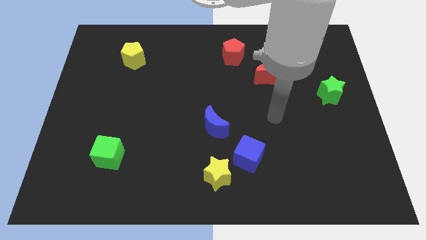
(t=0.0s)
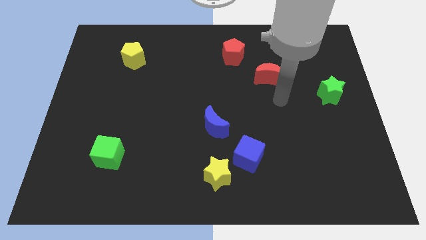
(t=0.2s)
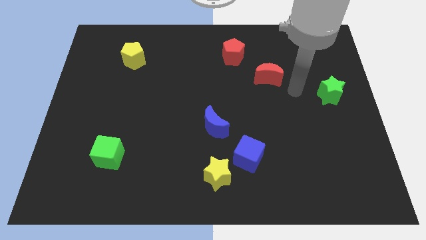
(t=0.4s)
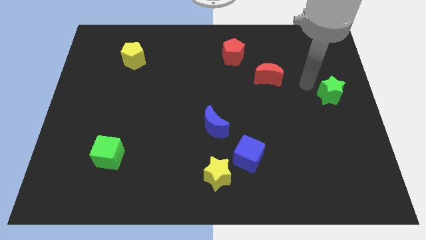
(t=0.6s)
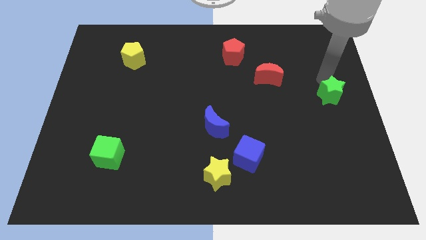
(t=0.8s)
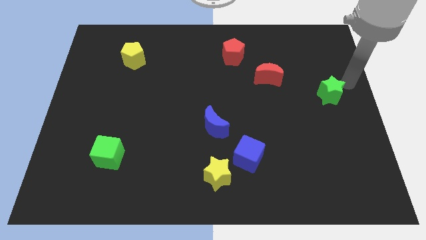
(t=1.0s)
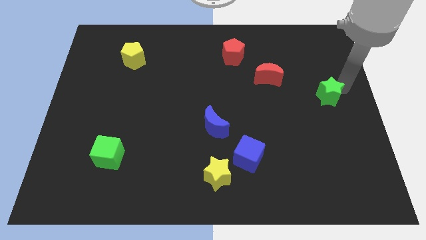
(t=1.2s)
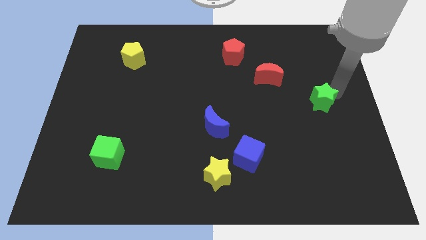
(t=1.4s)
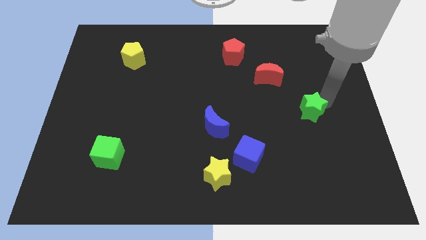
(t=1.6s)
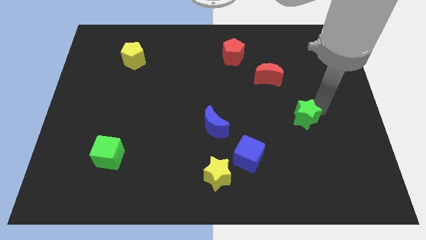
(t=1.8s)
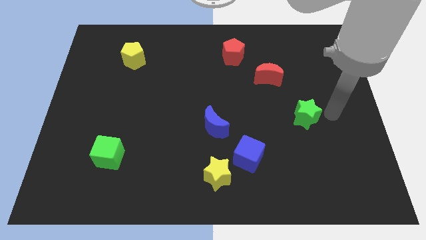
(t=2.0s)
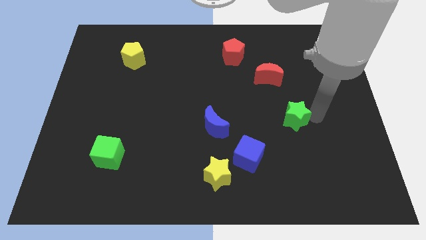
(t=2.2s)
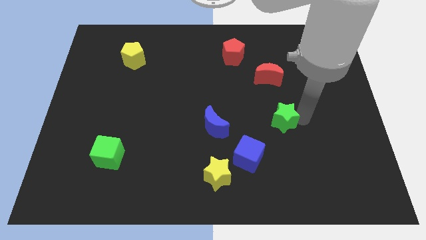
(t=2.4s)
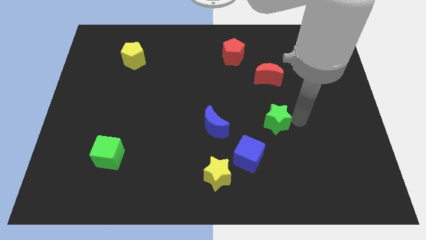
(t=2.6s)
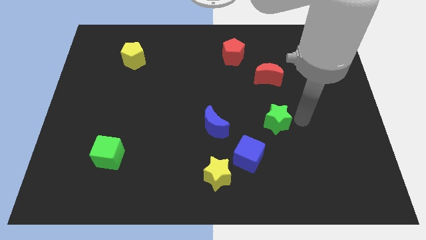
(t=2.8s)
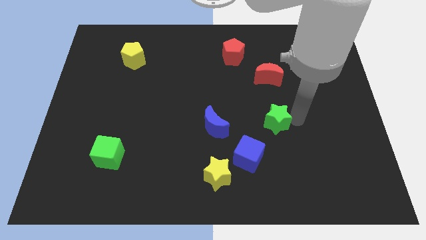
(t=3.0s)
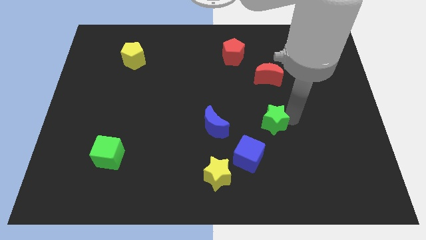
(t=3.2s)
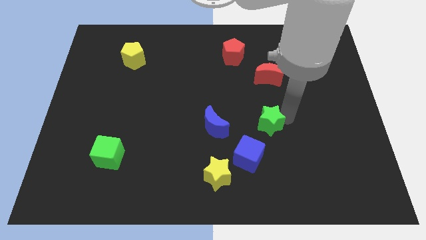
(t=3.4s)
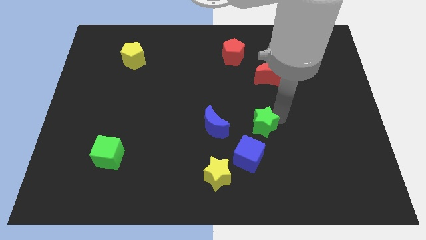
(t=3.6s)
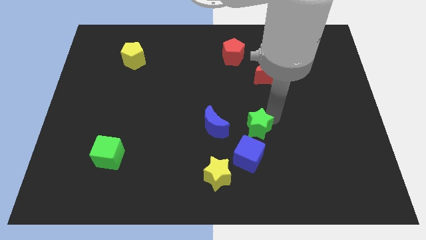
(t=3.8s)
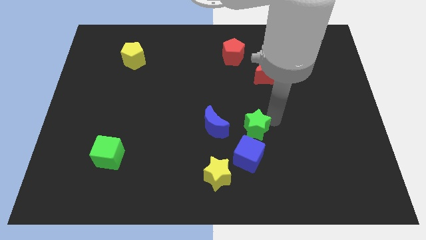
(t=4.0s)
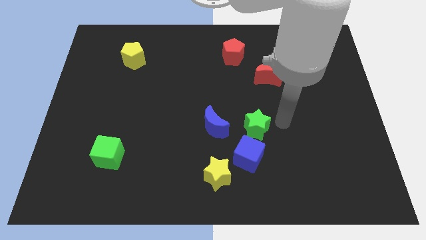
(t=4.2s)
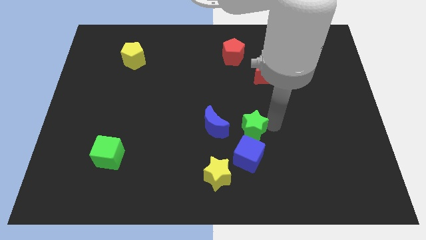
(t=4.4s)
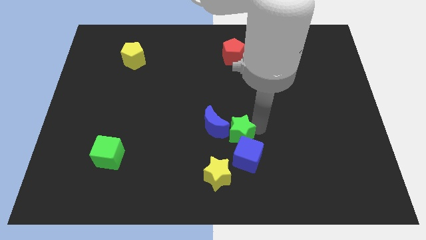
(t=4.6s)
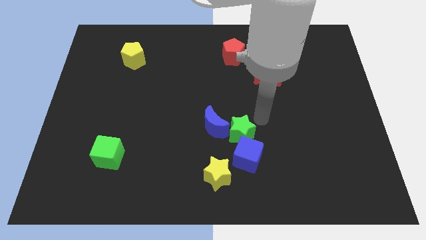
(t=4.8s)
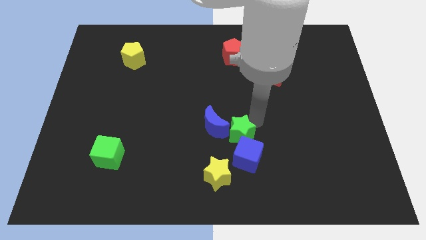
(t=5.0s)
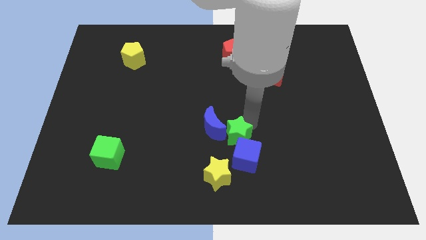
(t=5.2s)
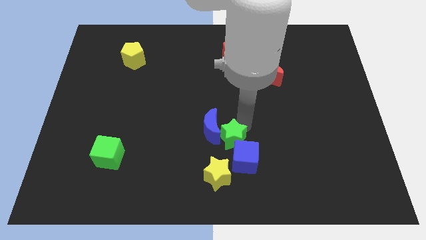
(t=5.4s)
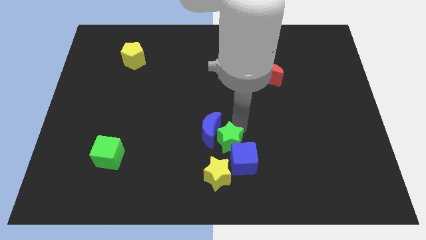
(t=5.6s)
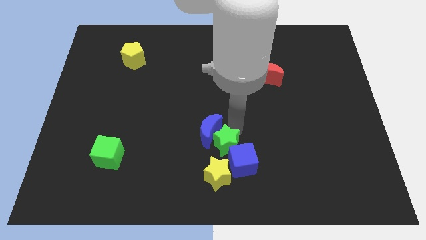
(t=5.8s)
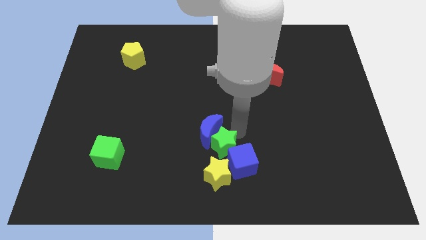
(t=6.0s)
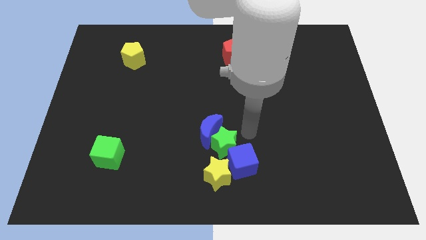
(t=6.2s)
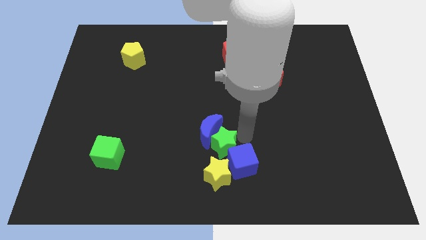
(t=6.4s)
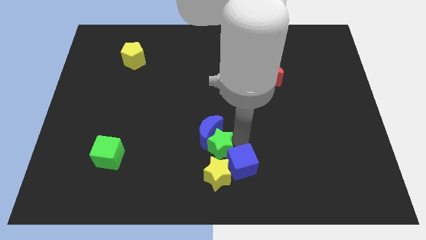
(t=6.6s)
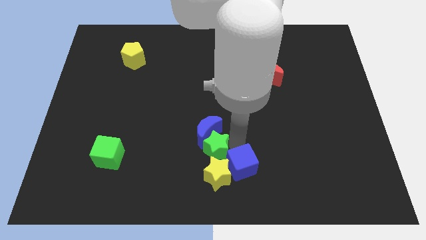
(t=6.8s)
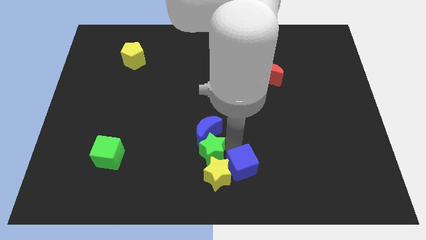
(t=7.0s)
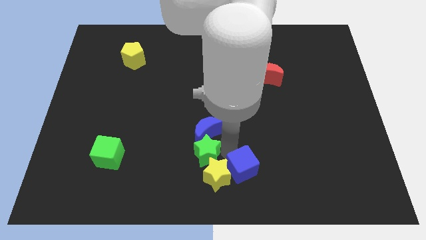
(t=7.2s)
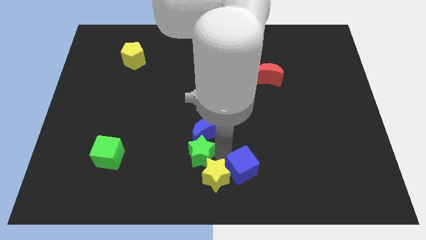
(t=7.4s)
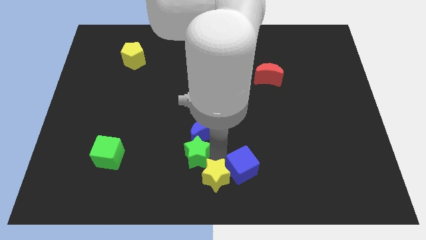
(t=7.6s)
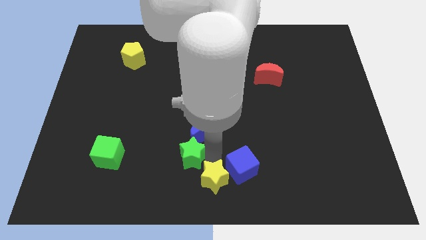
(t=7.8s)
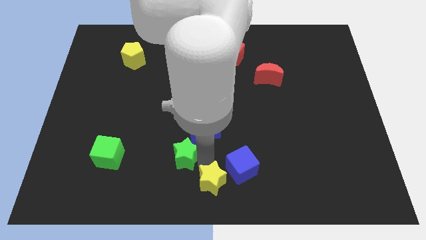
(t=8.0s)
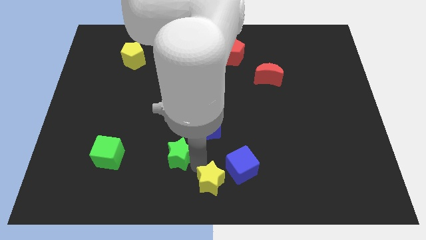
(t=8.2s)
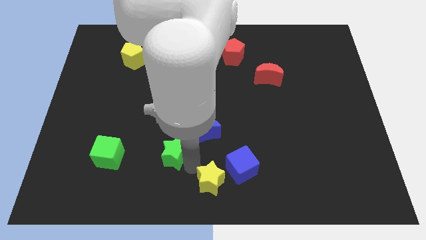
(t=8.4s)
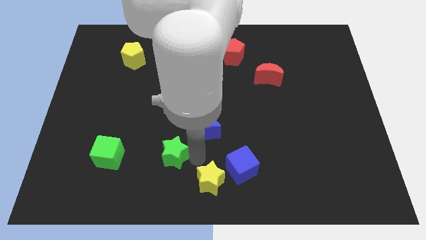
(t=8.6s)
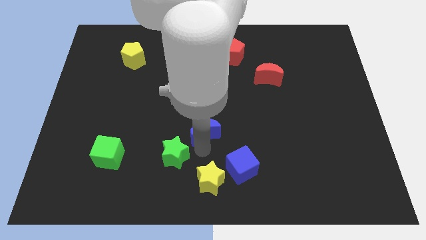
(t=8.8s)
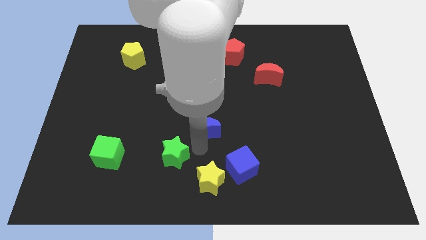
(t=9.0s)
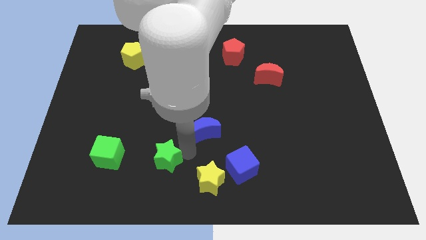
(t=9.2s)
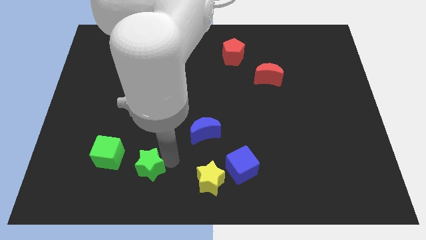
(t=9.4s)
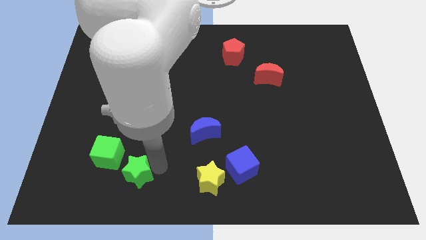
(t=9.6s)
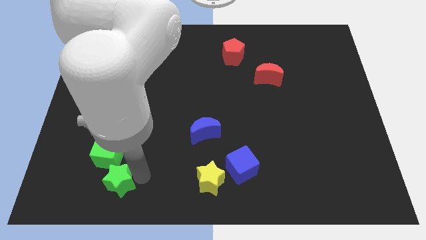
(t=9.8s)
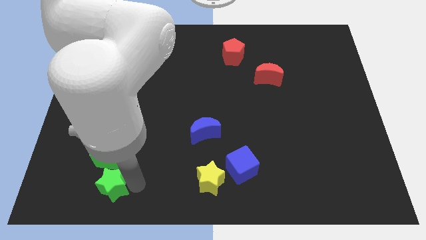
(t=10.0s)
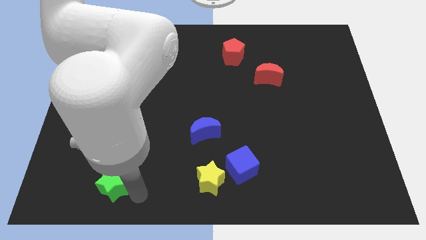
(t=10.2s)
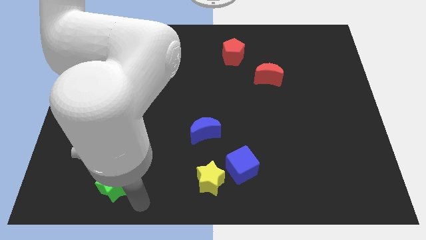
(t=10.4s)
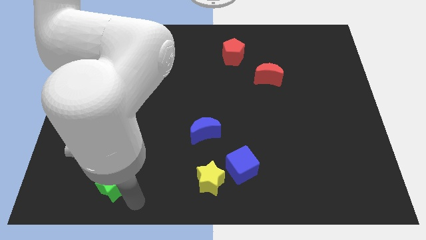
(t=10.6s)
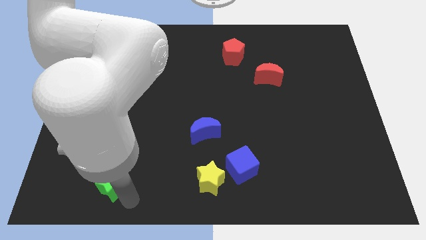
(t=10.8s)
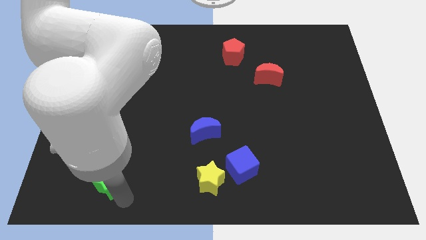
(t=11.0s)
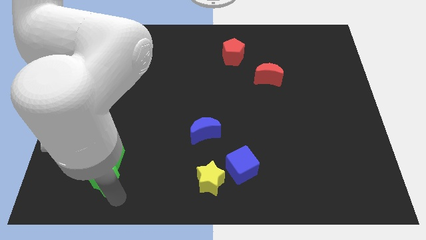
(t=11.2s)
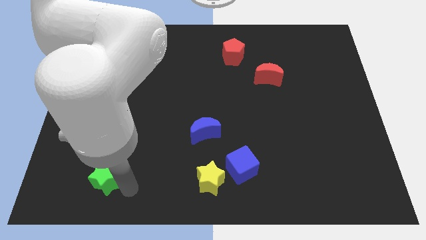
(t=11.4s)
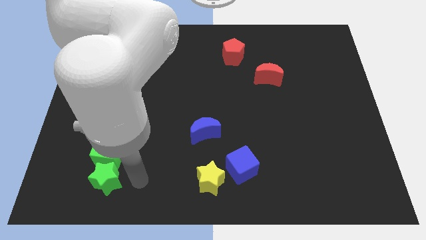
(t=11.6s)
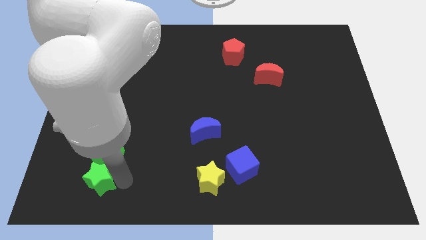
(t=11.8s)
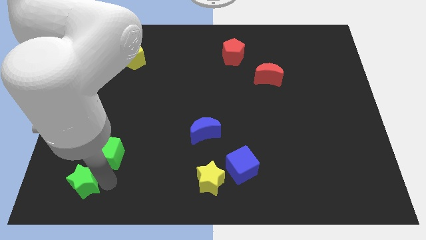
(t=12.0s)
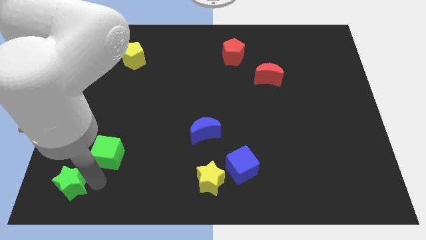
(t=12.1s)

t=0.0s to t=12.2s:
put the green star to the bottom left corner
